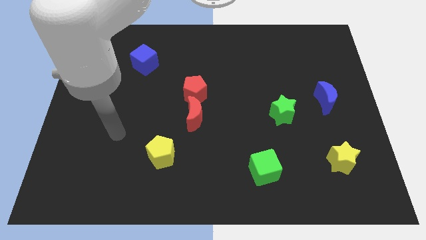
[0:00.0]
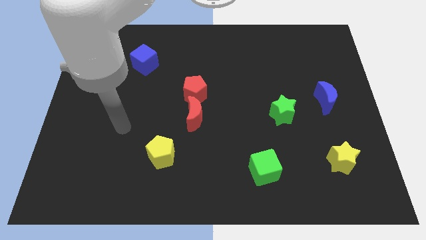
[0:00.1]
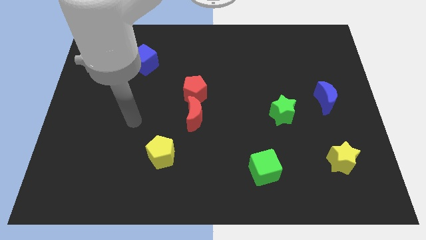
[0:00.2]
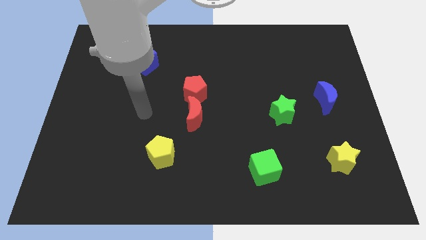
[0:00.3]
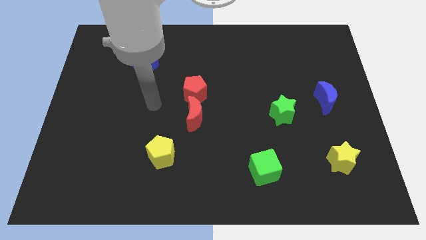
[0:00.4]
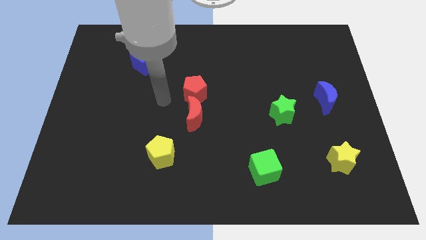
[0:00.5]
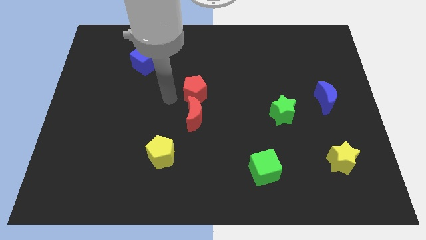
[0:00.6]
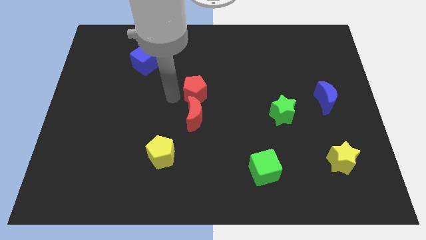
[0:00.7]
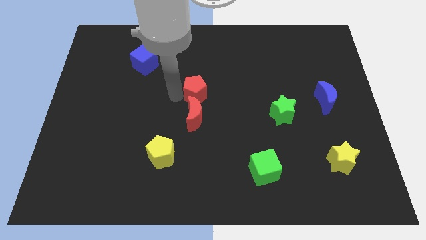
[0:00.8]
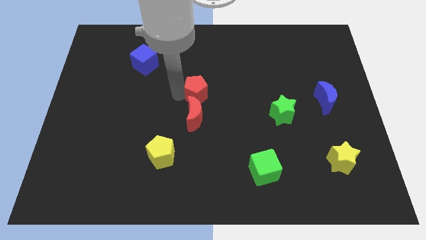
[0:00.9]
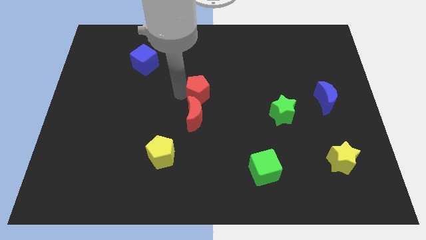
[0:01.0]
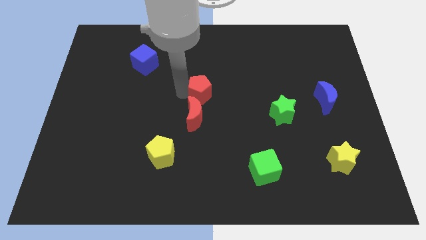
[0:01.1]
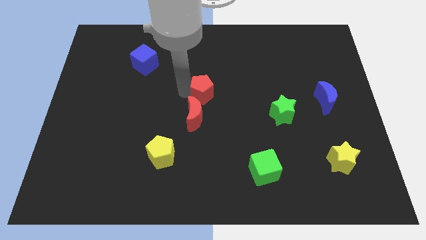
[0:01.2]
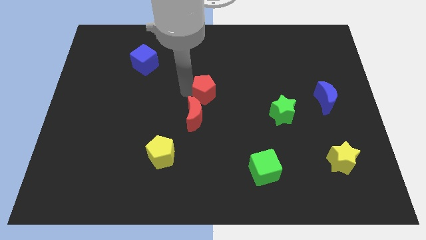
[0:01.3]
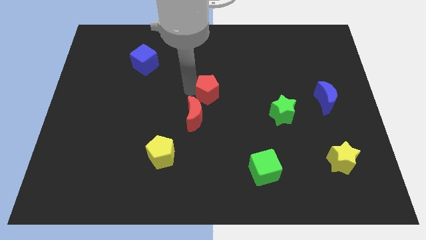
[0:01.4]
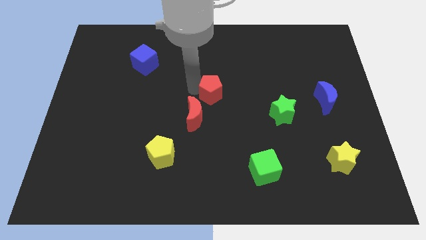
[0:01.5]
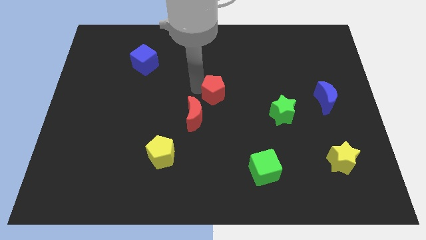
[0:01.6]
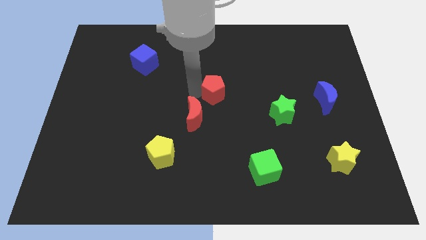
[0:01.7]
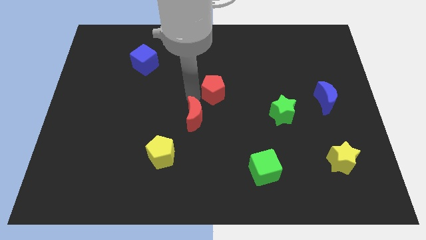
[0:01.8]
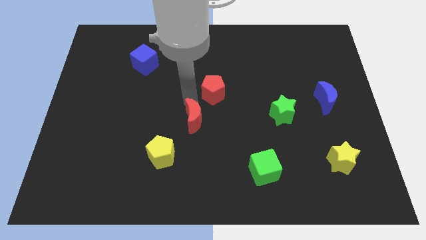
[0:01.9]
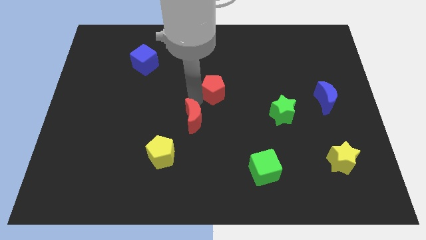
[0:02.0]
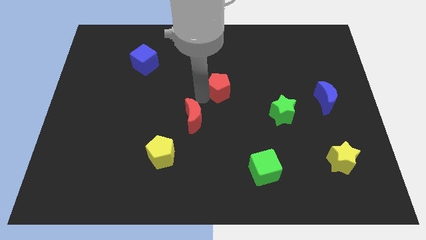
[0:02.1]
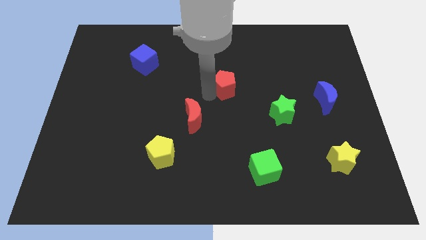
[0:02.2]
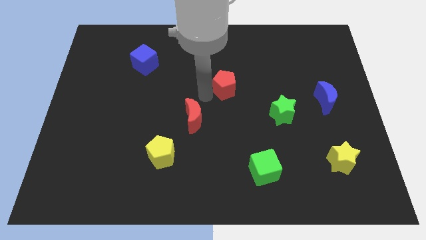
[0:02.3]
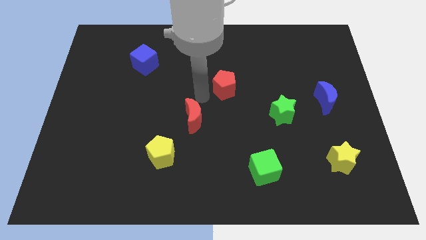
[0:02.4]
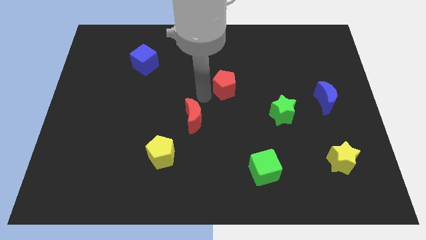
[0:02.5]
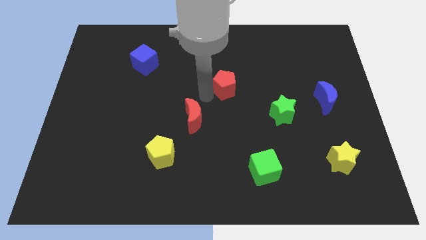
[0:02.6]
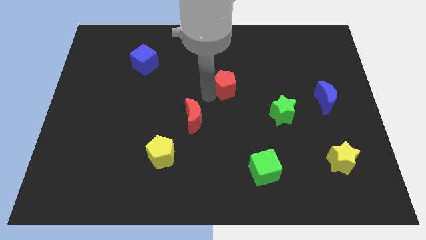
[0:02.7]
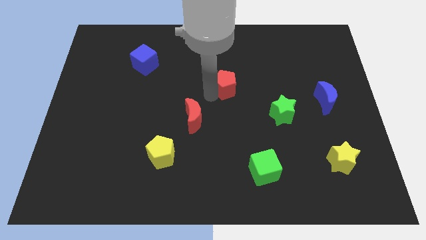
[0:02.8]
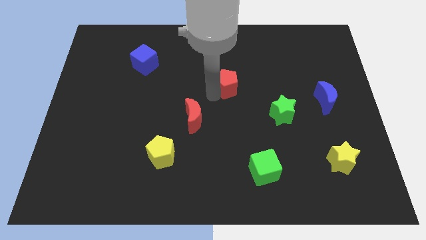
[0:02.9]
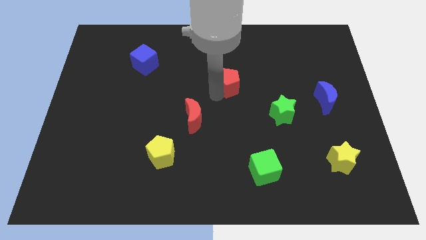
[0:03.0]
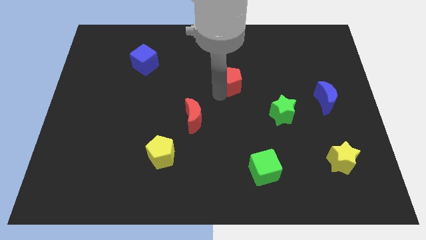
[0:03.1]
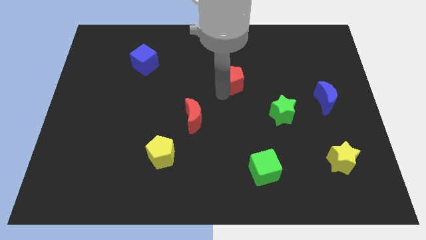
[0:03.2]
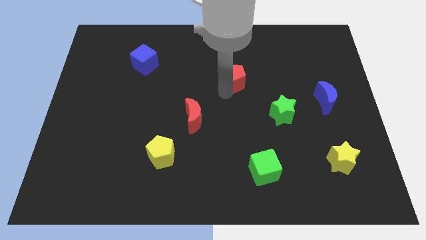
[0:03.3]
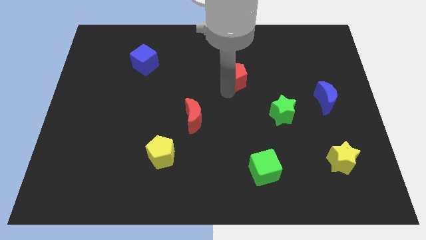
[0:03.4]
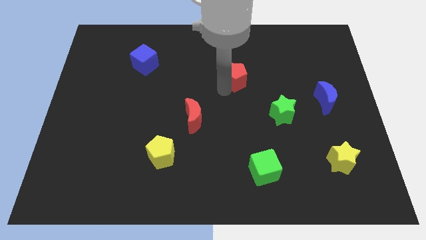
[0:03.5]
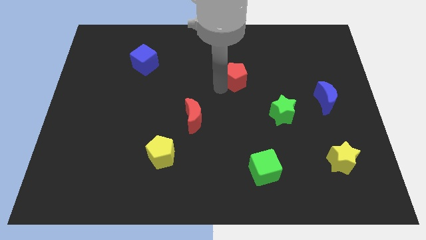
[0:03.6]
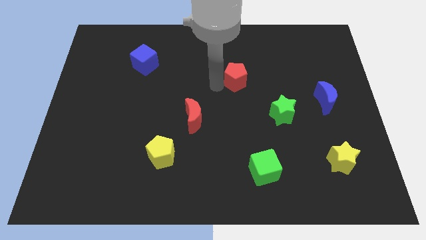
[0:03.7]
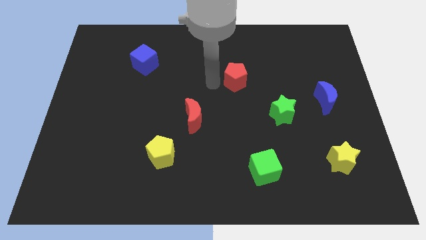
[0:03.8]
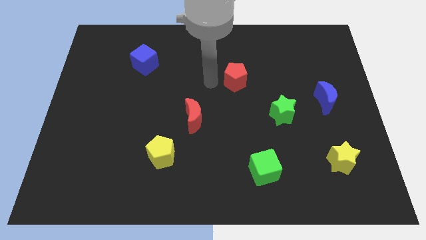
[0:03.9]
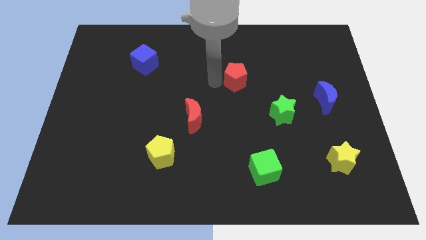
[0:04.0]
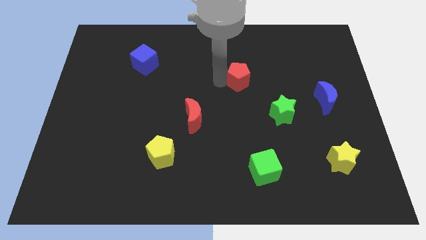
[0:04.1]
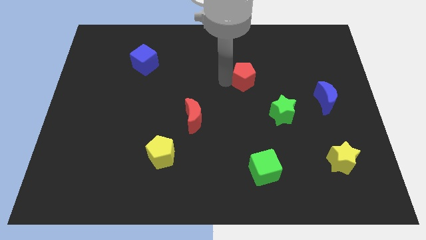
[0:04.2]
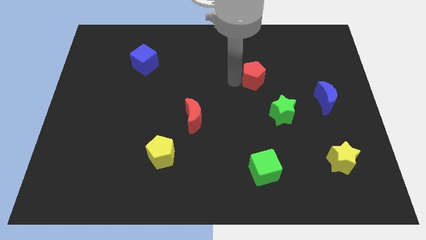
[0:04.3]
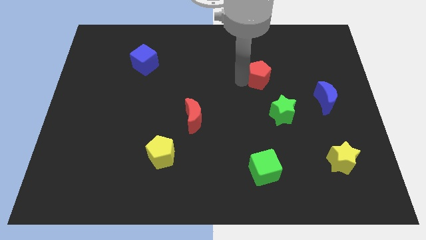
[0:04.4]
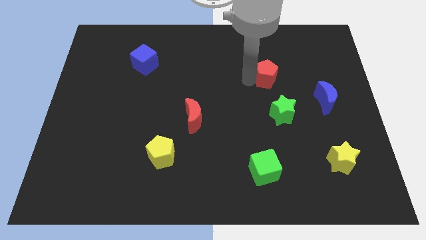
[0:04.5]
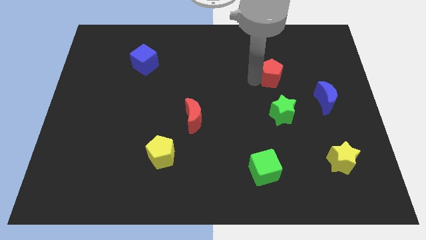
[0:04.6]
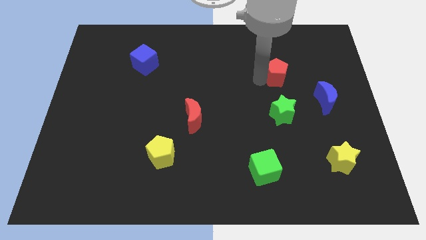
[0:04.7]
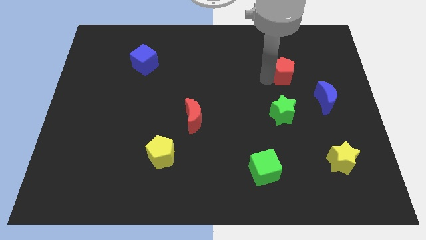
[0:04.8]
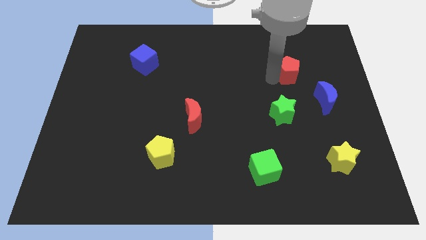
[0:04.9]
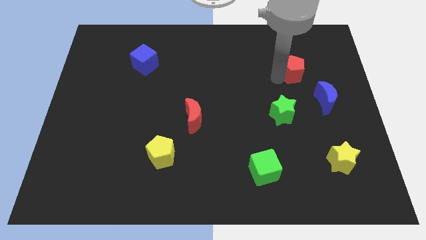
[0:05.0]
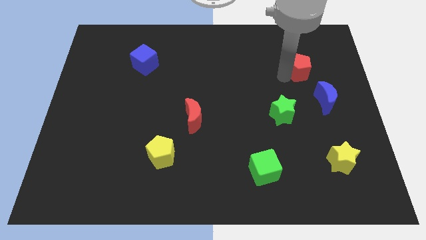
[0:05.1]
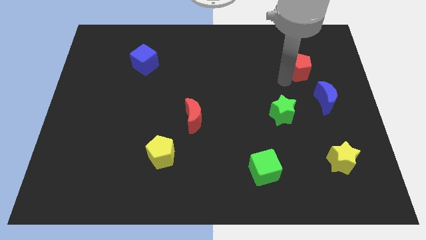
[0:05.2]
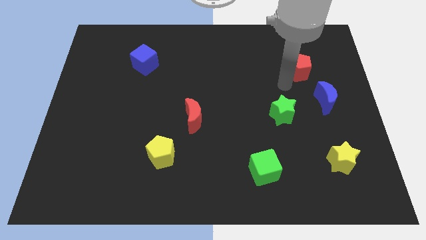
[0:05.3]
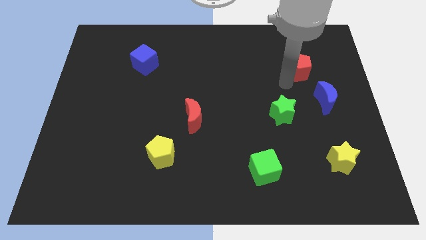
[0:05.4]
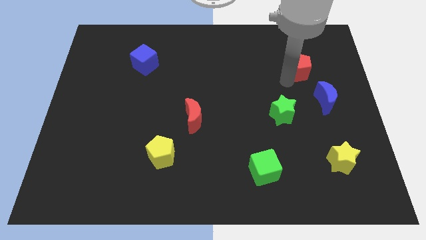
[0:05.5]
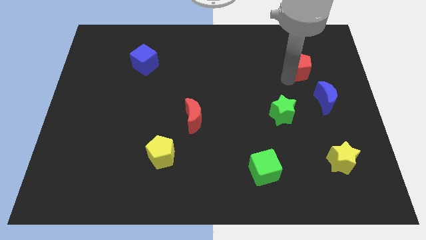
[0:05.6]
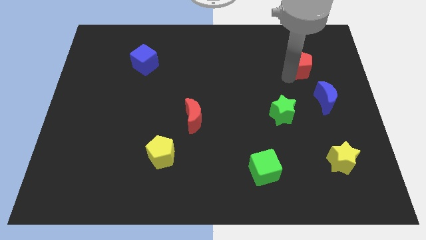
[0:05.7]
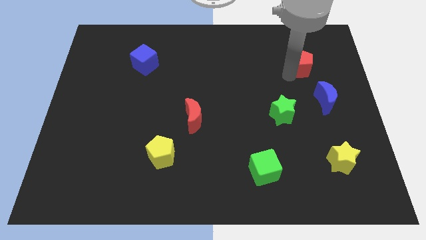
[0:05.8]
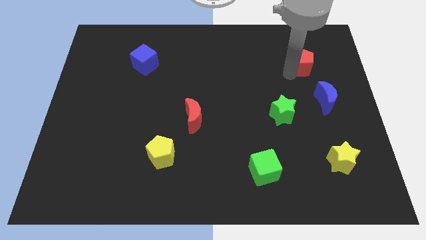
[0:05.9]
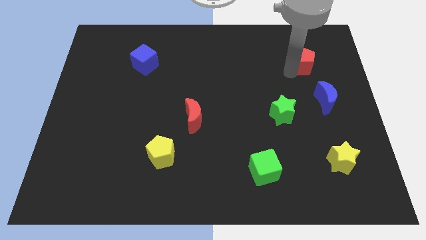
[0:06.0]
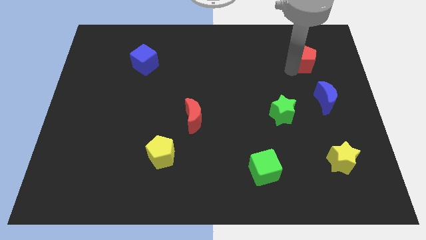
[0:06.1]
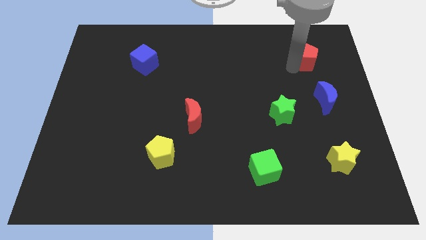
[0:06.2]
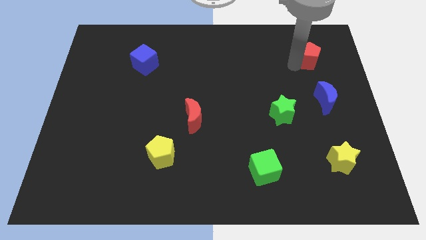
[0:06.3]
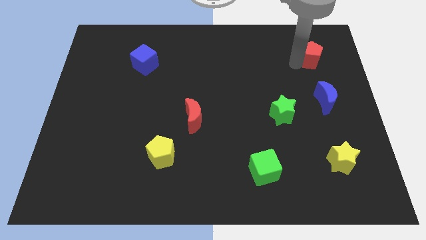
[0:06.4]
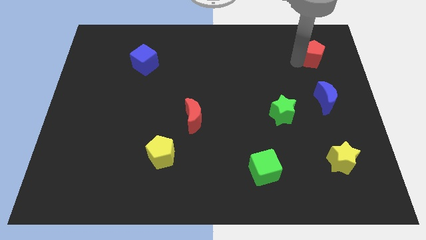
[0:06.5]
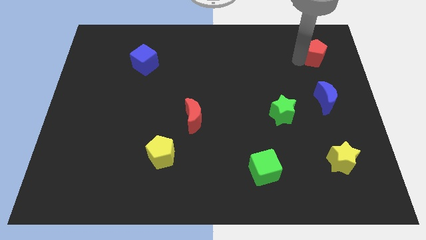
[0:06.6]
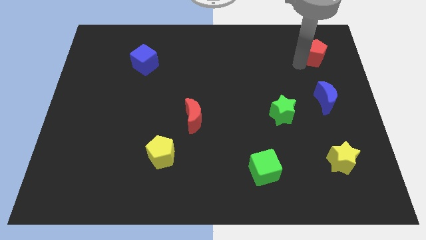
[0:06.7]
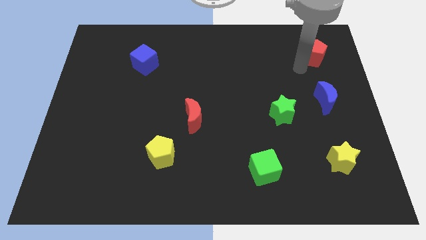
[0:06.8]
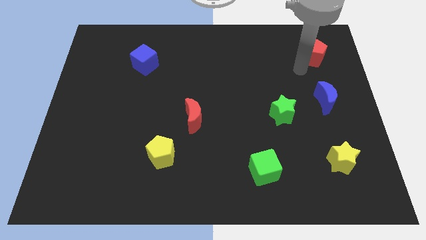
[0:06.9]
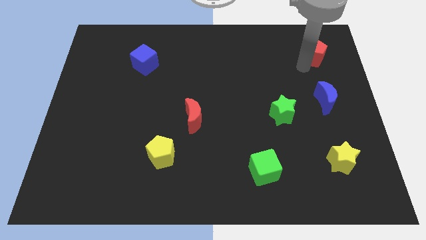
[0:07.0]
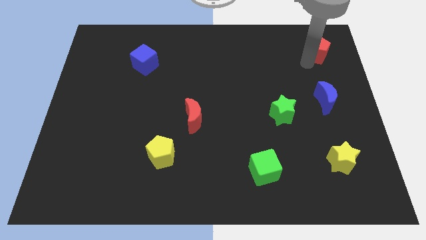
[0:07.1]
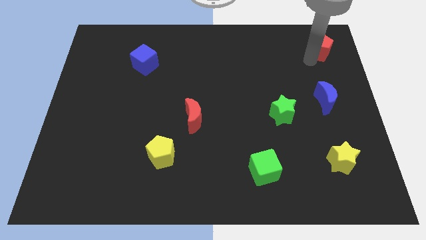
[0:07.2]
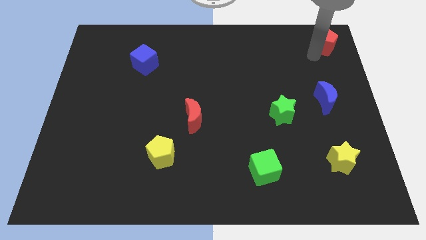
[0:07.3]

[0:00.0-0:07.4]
slide the red pentagon to the top right of the board

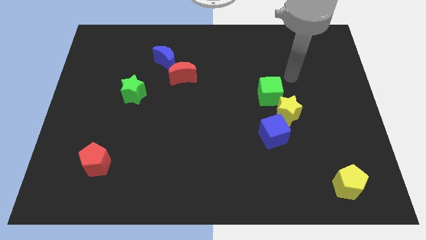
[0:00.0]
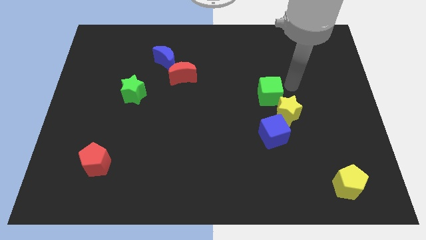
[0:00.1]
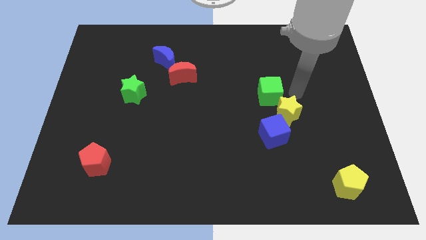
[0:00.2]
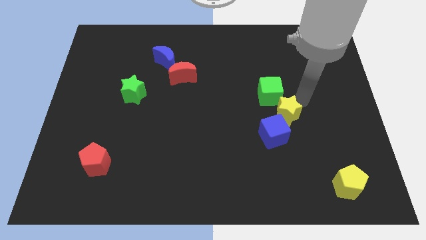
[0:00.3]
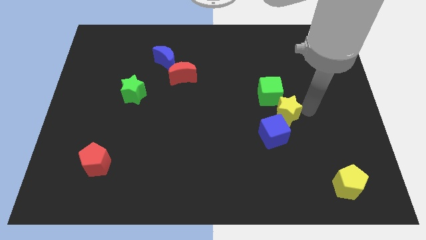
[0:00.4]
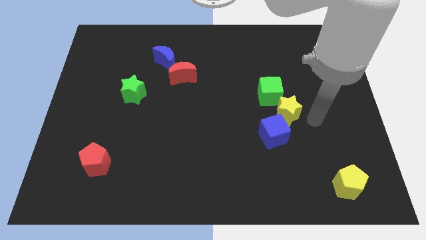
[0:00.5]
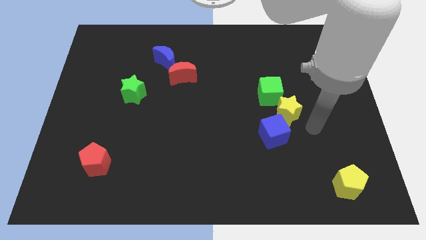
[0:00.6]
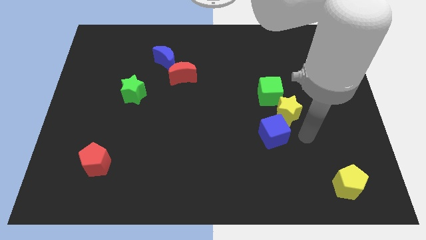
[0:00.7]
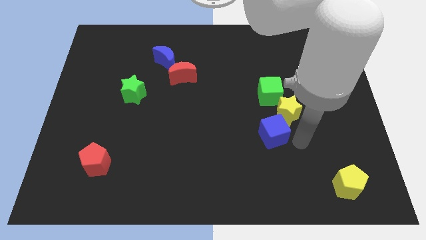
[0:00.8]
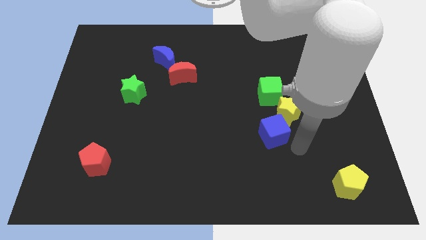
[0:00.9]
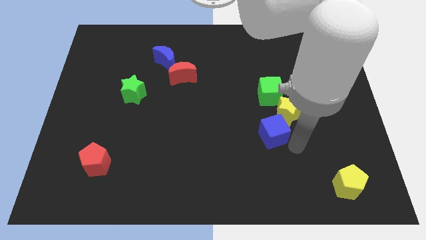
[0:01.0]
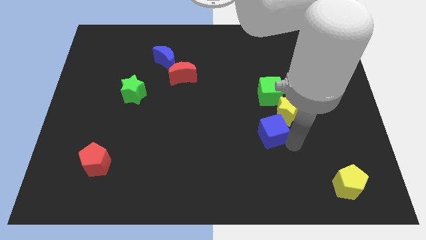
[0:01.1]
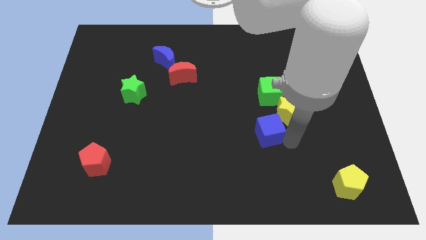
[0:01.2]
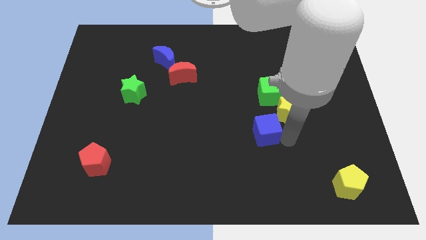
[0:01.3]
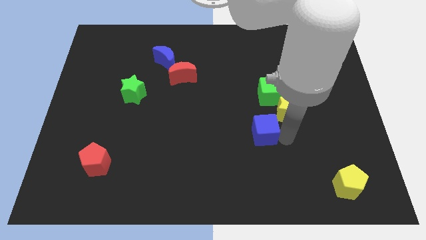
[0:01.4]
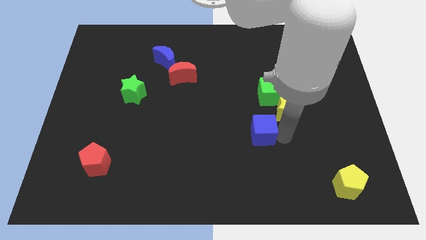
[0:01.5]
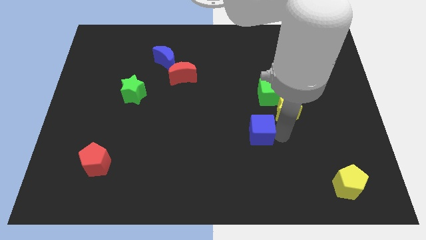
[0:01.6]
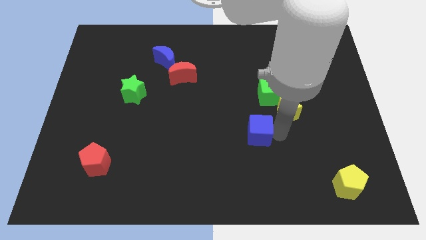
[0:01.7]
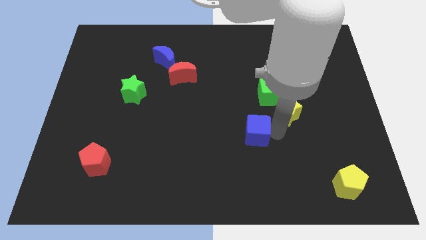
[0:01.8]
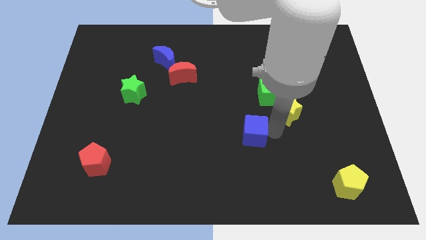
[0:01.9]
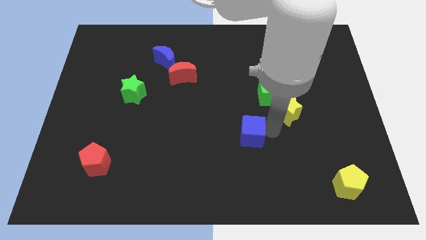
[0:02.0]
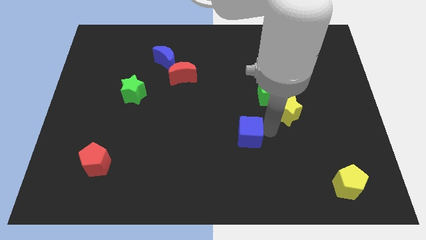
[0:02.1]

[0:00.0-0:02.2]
push the blue cube to the center of the board
